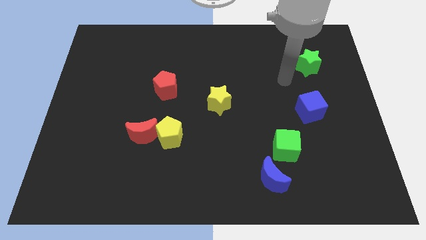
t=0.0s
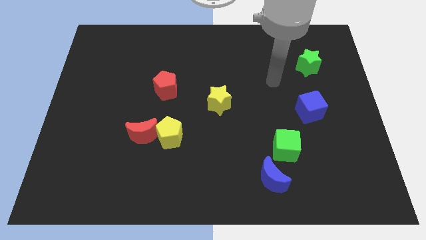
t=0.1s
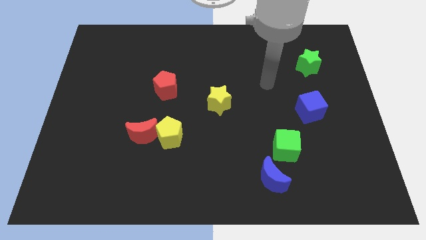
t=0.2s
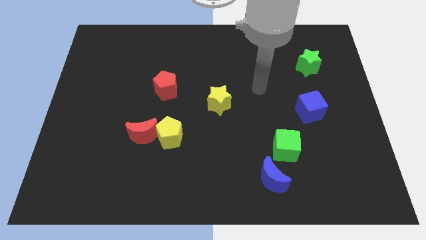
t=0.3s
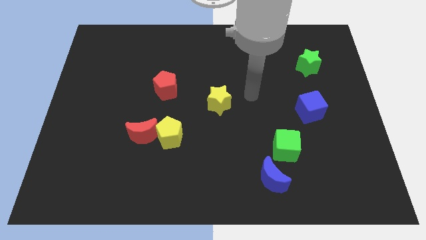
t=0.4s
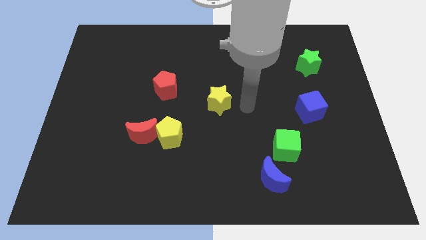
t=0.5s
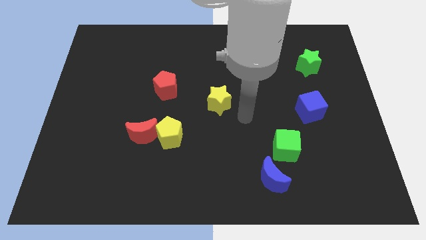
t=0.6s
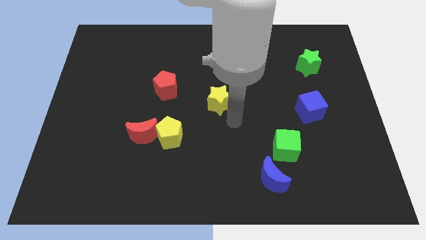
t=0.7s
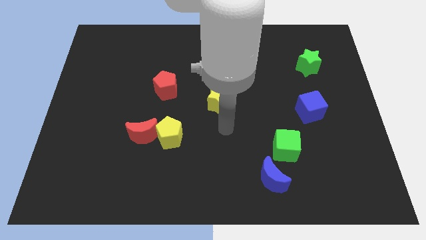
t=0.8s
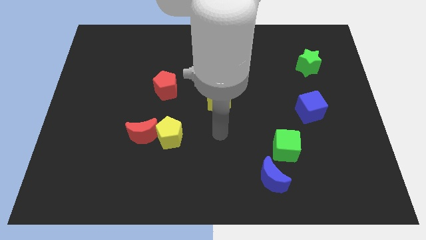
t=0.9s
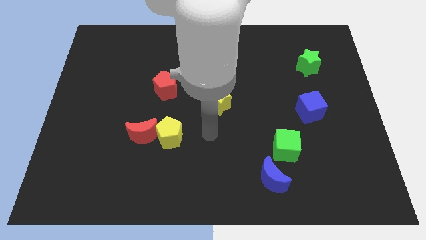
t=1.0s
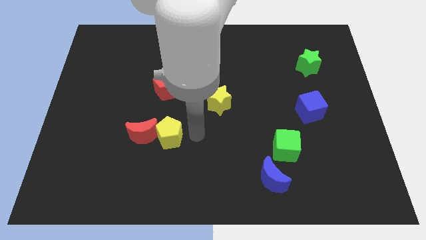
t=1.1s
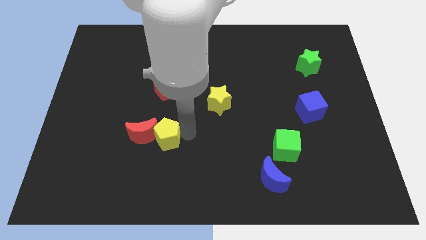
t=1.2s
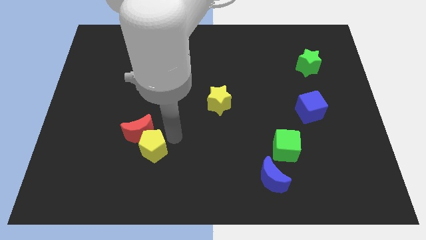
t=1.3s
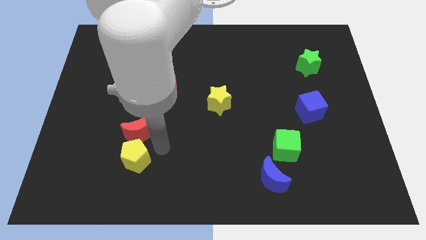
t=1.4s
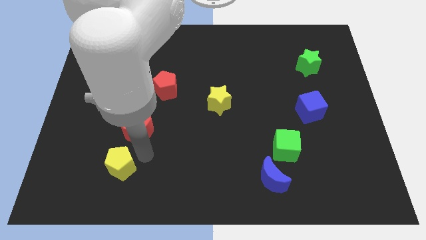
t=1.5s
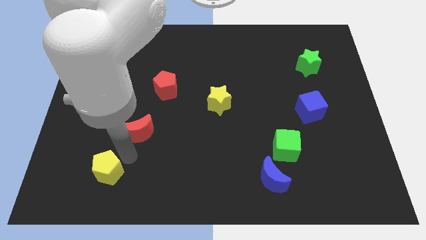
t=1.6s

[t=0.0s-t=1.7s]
move the red moon away from the yellow pentagon

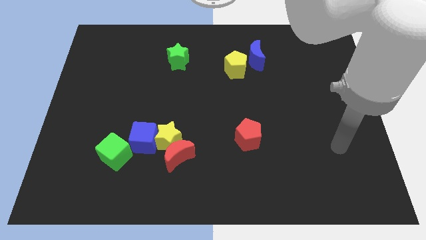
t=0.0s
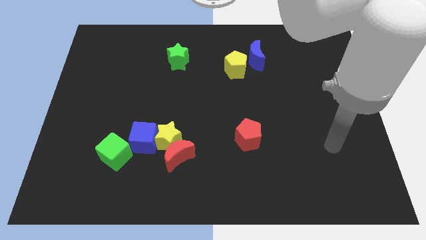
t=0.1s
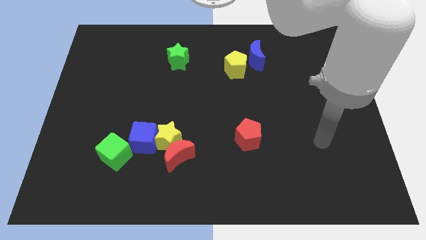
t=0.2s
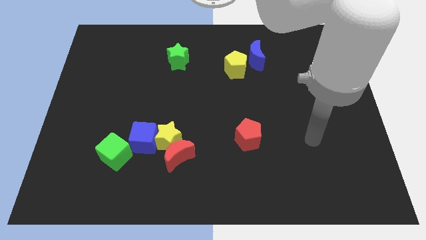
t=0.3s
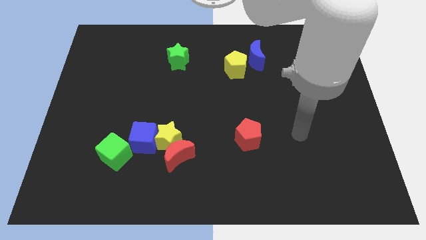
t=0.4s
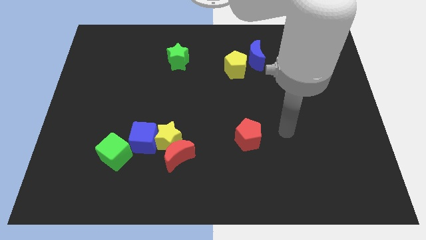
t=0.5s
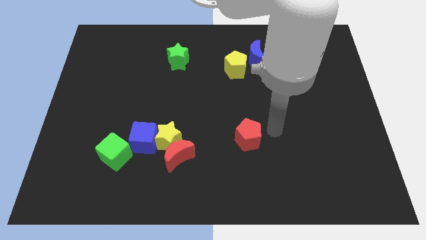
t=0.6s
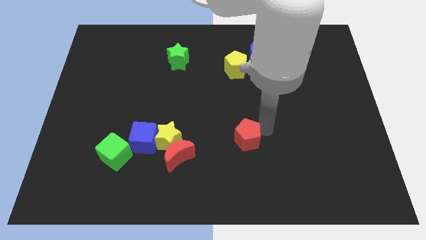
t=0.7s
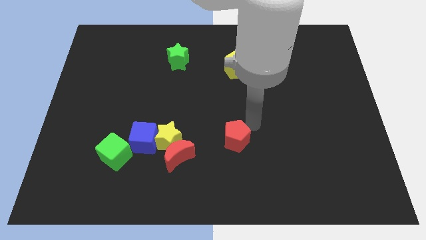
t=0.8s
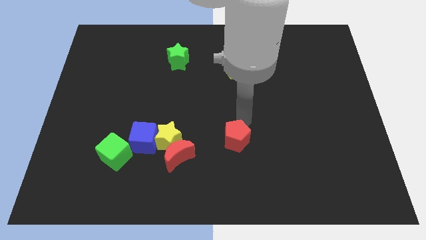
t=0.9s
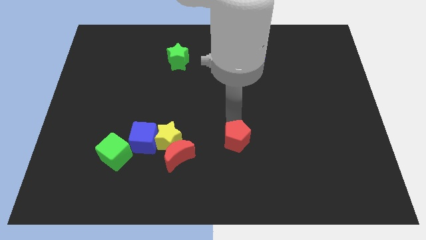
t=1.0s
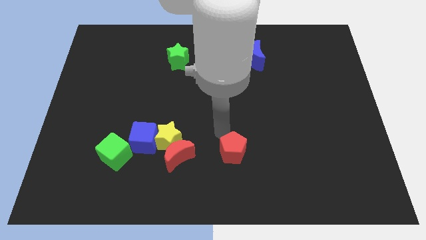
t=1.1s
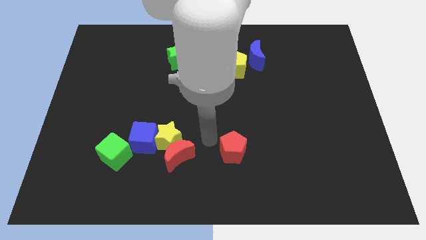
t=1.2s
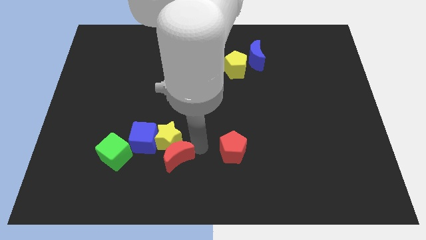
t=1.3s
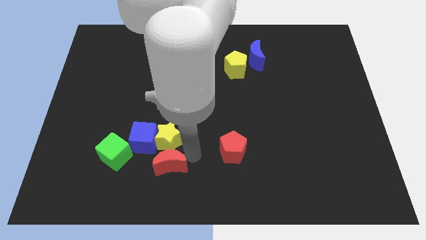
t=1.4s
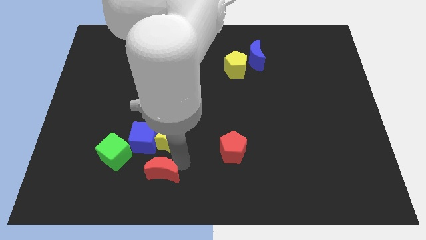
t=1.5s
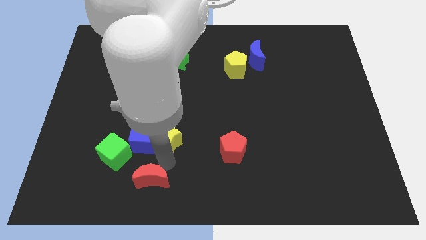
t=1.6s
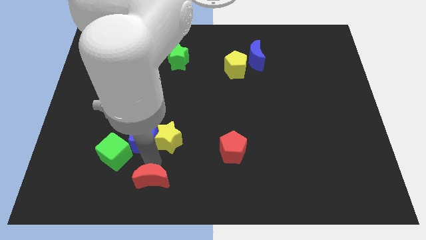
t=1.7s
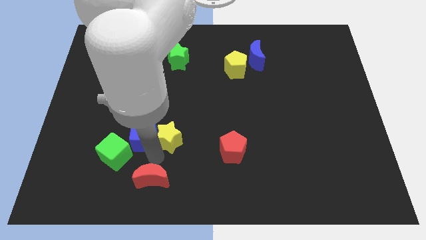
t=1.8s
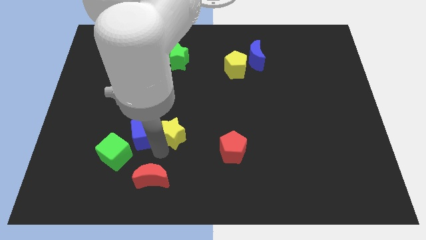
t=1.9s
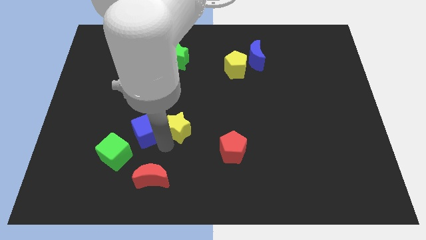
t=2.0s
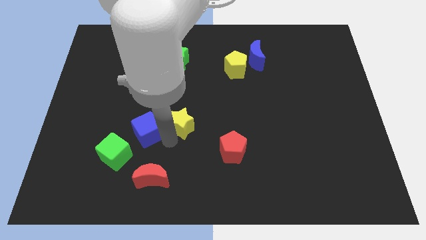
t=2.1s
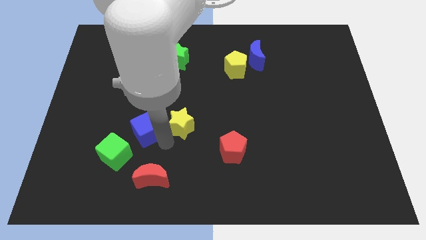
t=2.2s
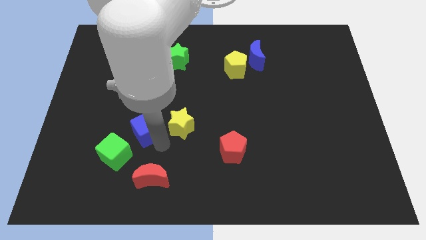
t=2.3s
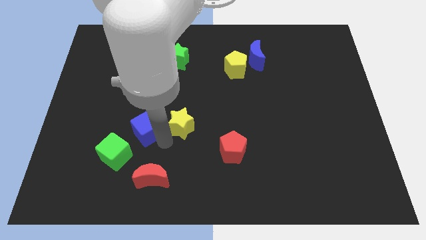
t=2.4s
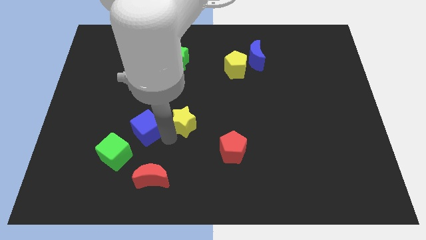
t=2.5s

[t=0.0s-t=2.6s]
separate the yellow star from the red moon and blue cube

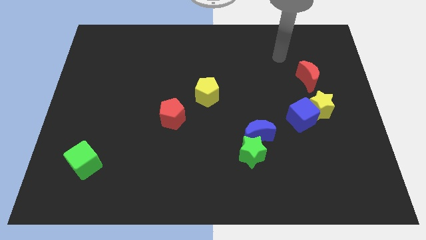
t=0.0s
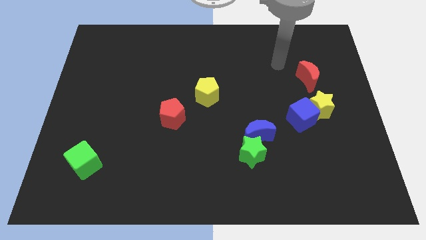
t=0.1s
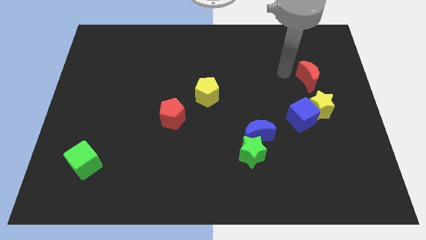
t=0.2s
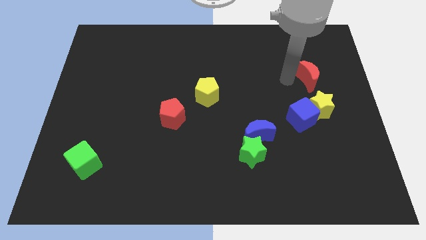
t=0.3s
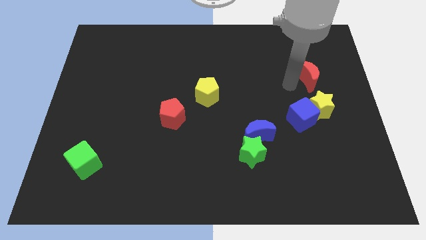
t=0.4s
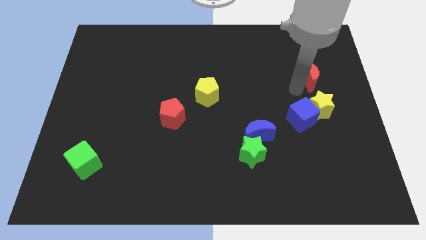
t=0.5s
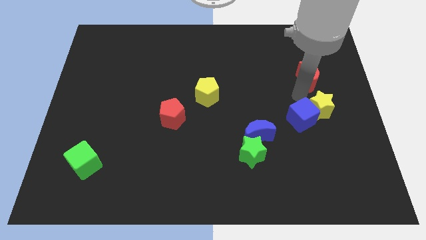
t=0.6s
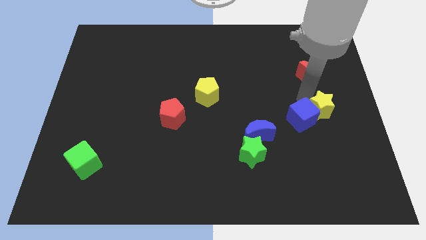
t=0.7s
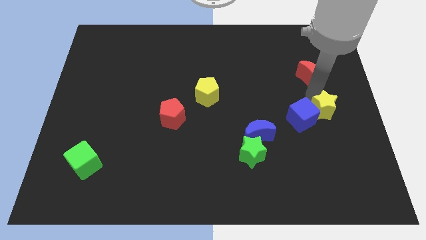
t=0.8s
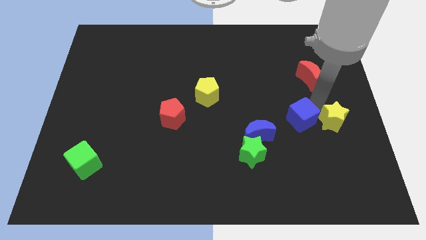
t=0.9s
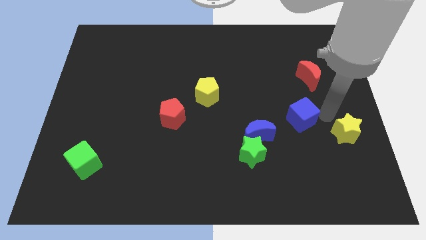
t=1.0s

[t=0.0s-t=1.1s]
pull the blue cube apart from the yellow star

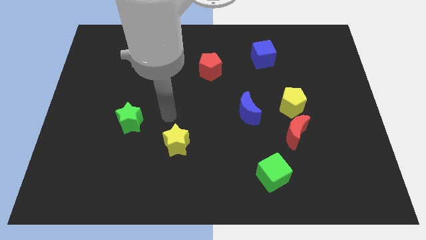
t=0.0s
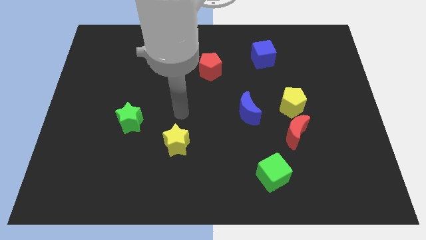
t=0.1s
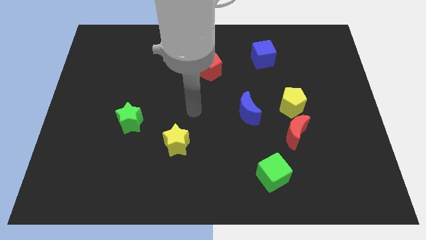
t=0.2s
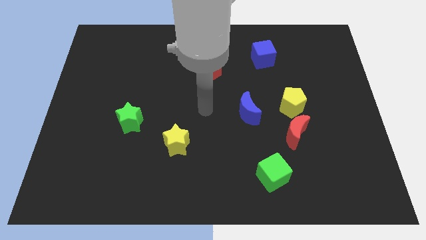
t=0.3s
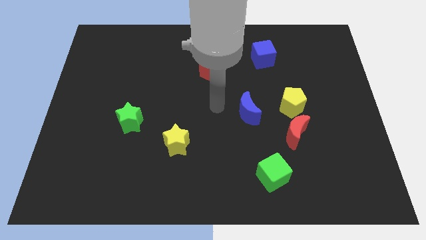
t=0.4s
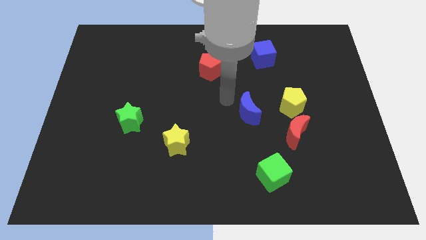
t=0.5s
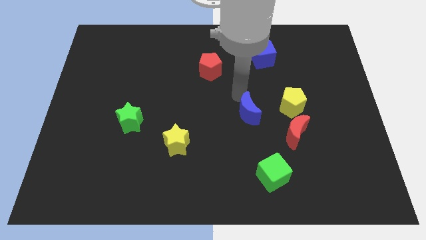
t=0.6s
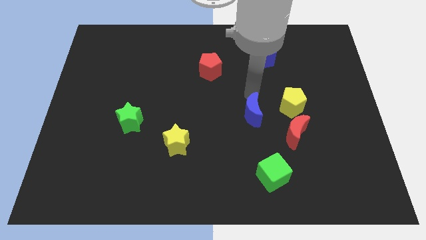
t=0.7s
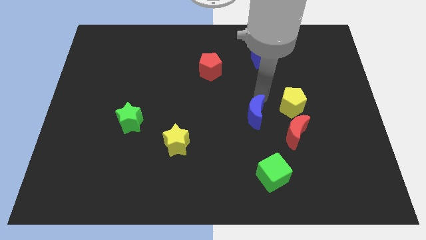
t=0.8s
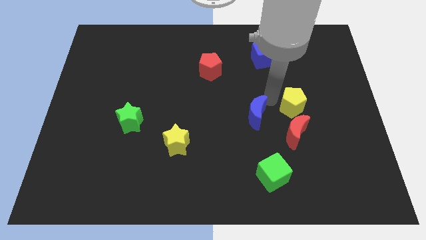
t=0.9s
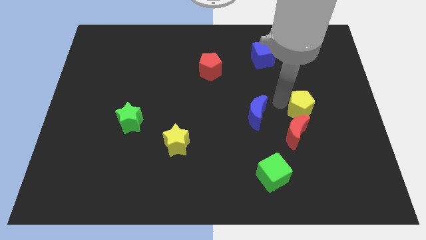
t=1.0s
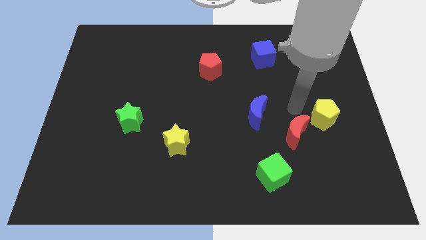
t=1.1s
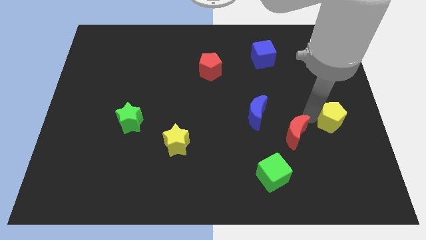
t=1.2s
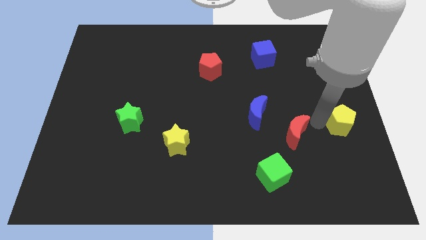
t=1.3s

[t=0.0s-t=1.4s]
pull the red moon apart from the yellow pentagon

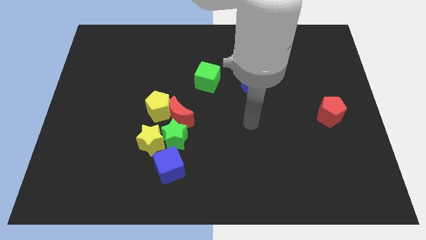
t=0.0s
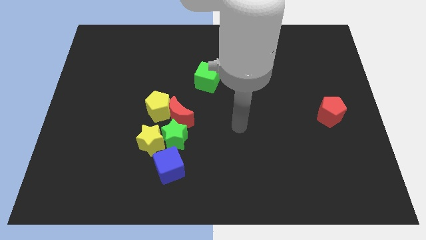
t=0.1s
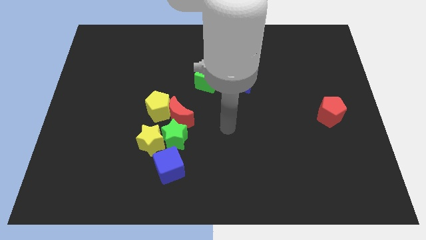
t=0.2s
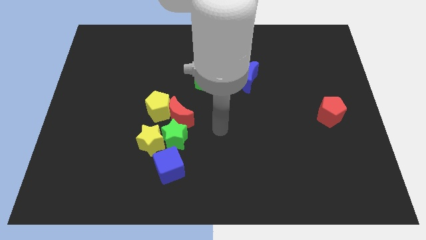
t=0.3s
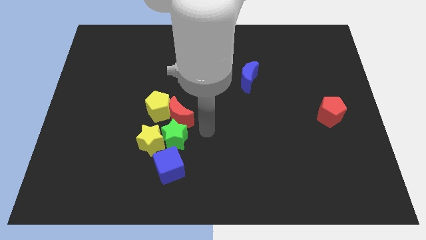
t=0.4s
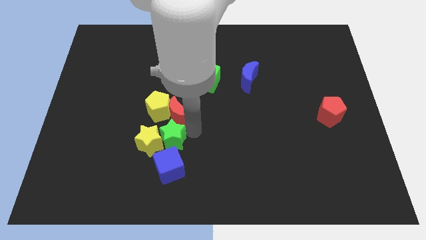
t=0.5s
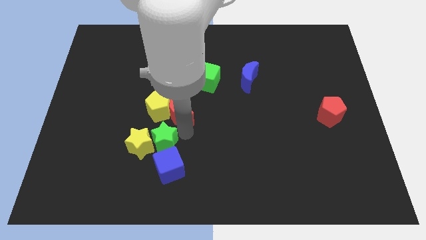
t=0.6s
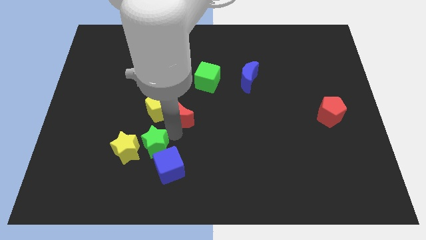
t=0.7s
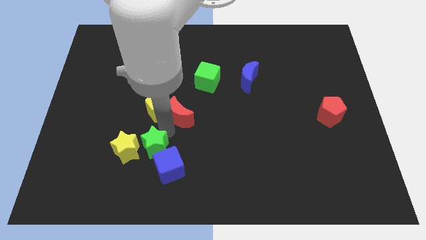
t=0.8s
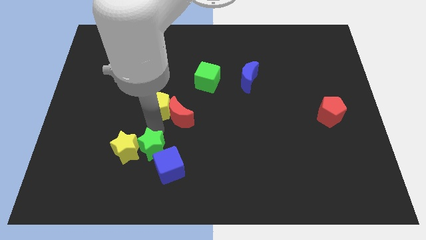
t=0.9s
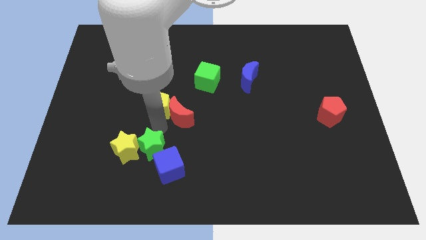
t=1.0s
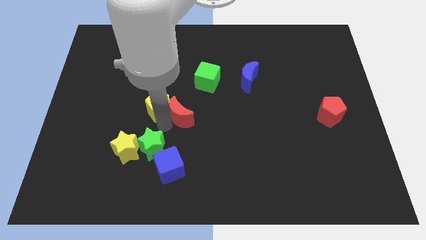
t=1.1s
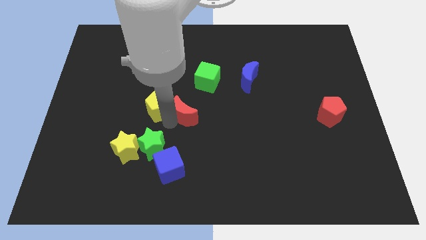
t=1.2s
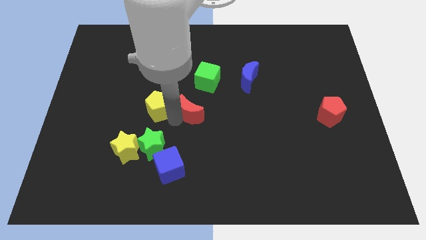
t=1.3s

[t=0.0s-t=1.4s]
pull the red moon apart from the yellow pentagon, green star, and yellow star

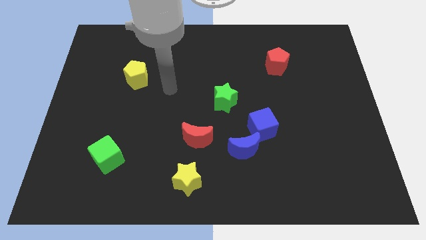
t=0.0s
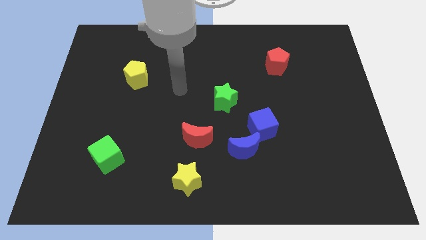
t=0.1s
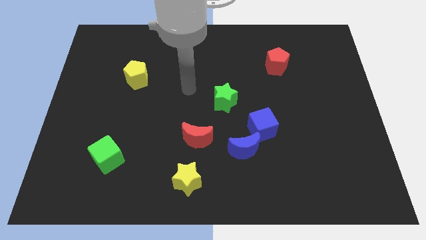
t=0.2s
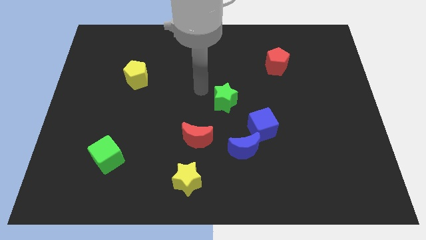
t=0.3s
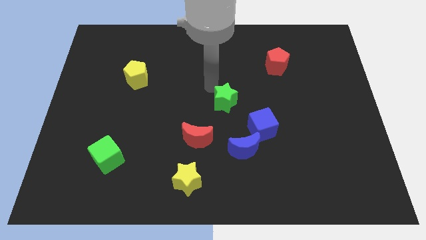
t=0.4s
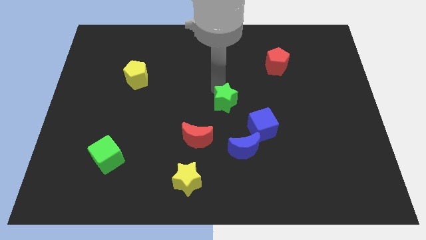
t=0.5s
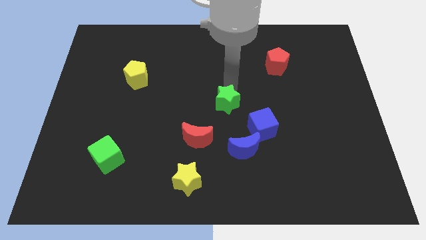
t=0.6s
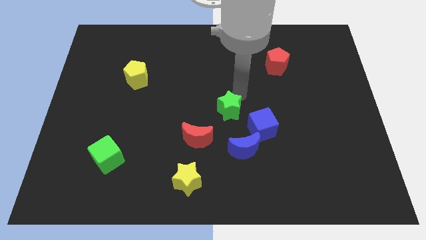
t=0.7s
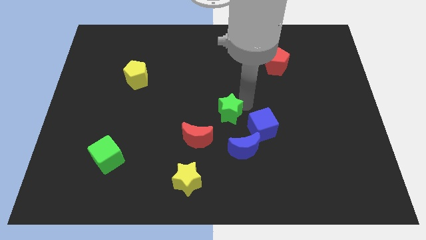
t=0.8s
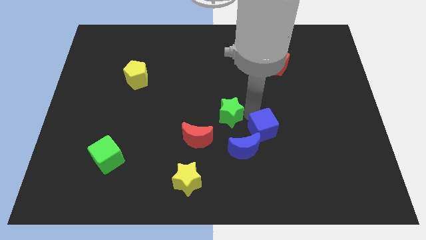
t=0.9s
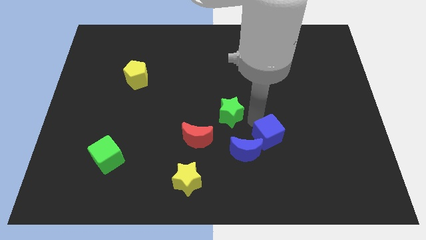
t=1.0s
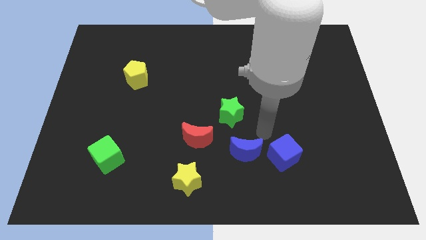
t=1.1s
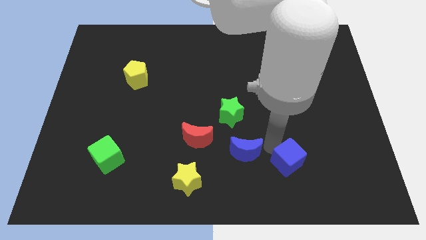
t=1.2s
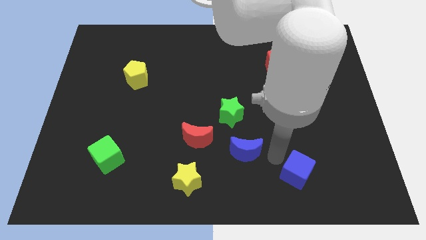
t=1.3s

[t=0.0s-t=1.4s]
separate the blue moon from the blue cube
